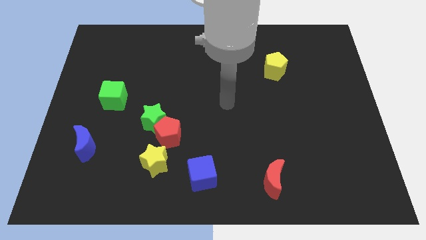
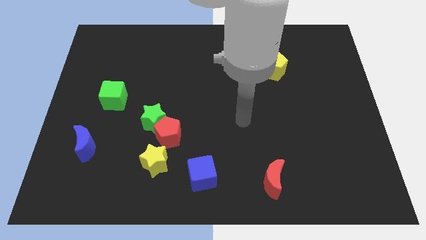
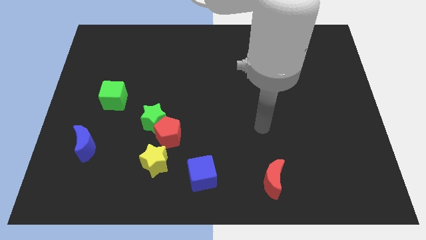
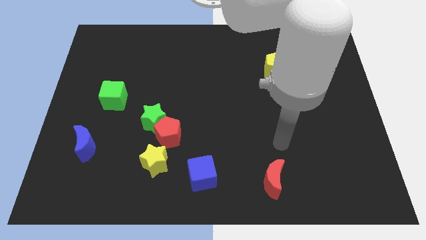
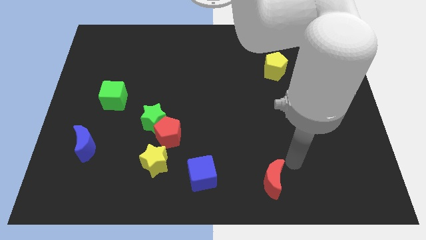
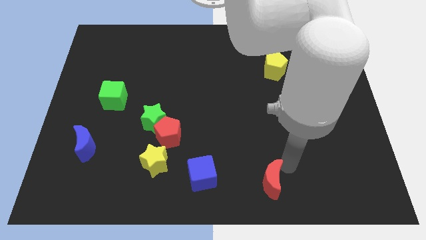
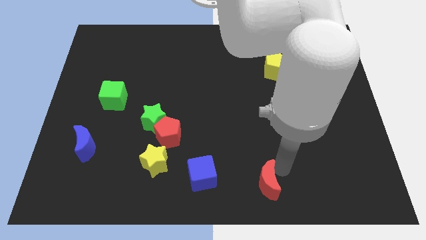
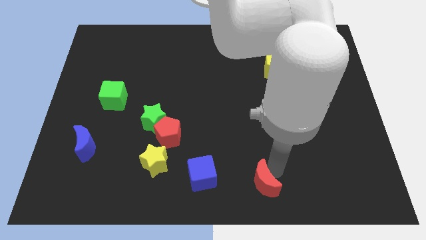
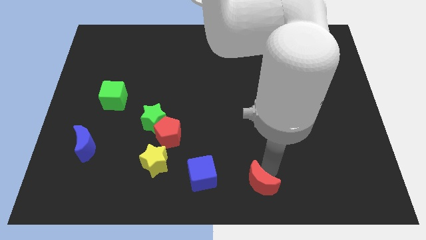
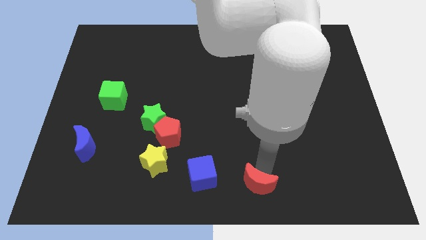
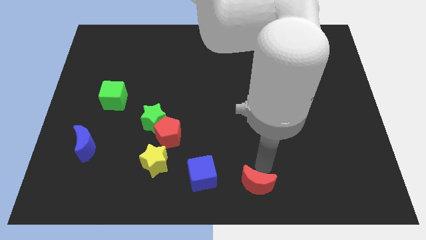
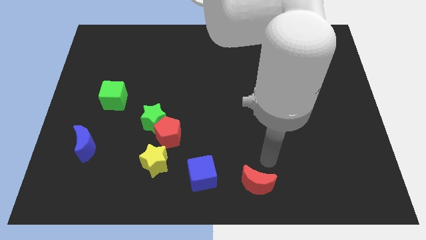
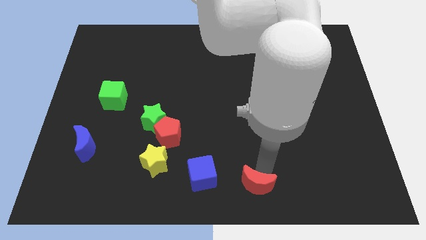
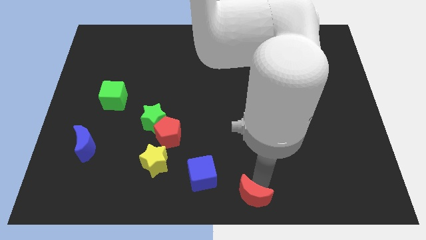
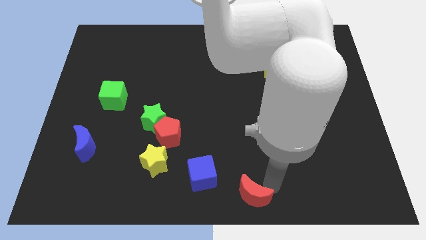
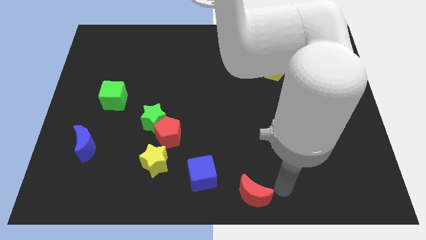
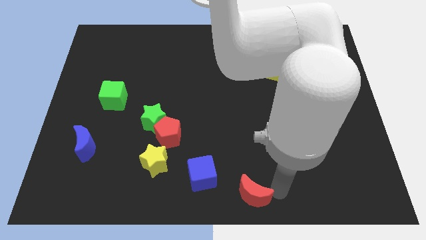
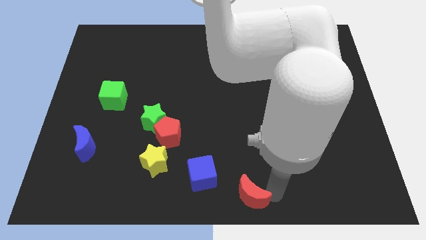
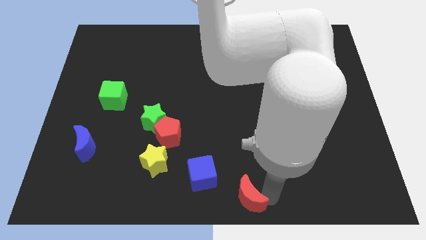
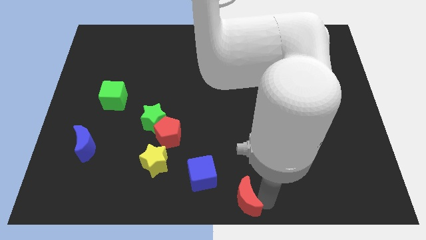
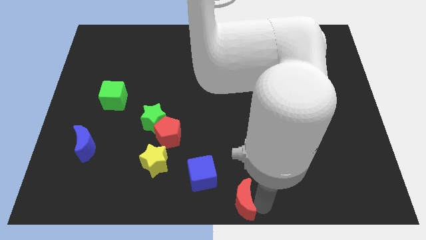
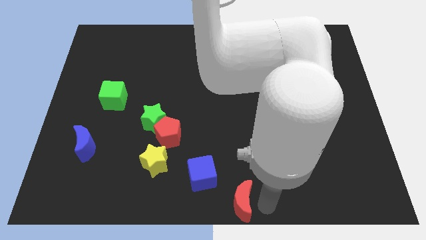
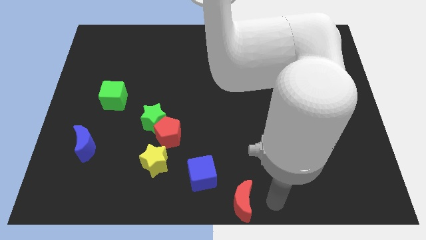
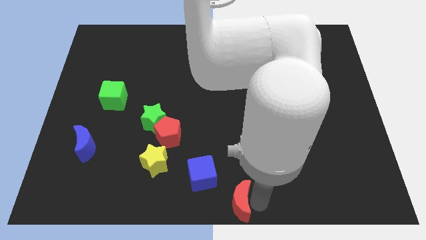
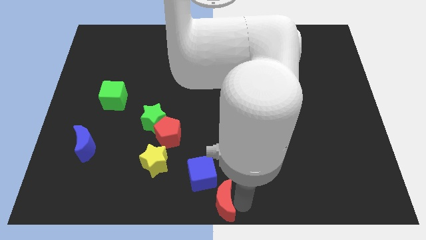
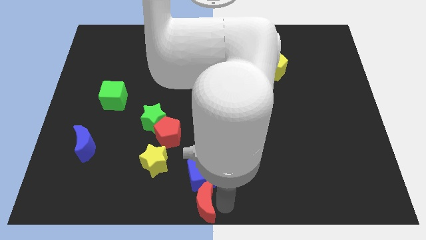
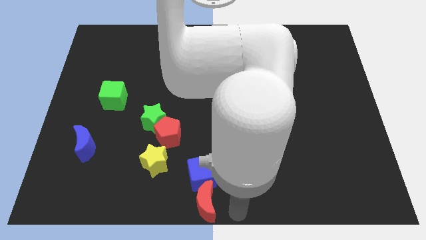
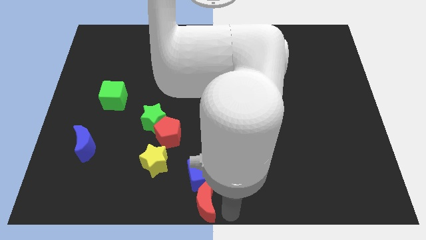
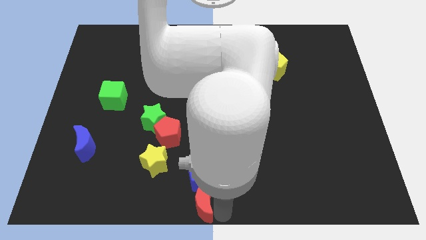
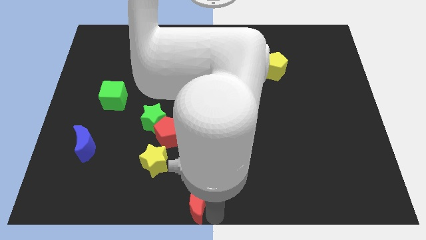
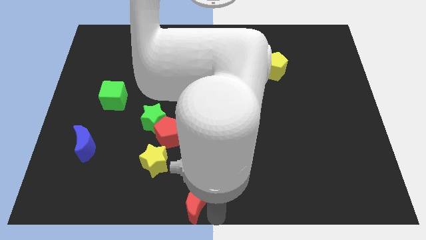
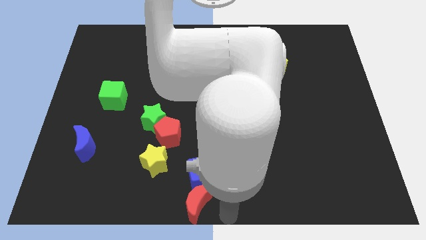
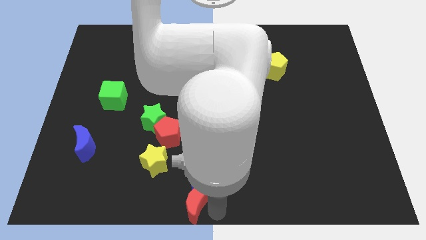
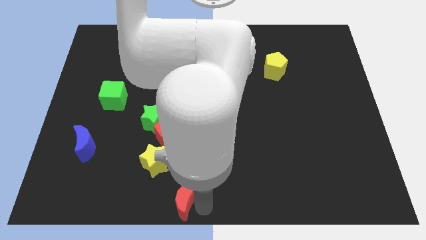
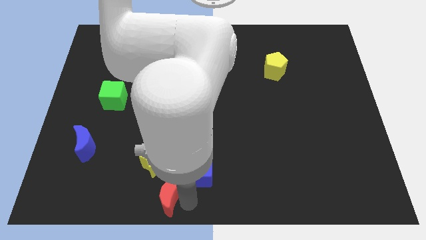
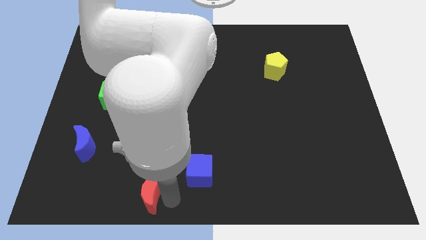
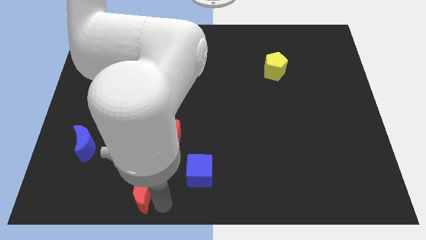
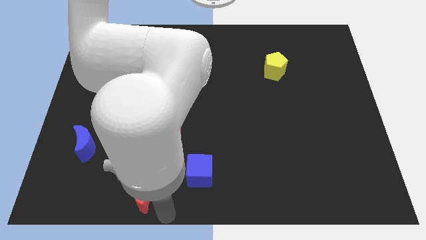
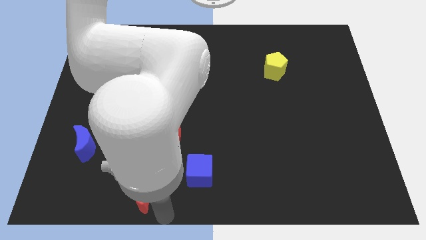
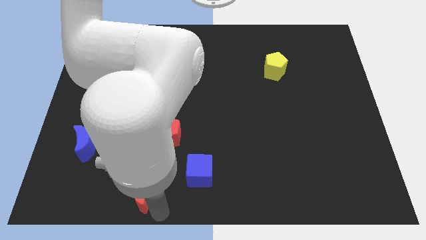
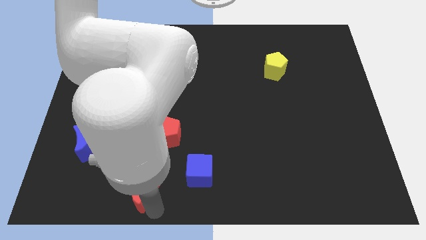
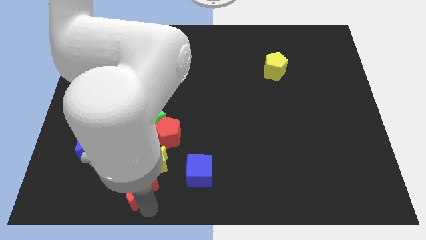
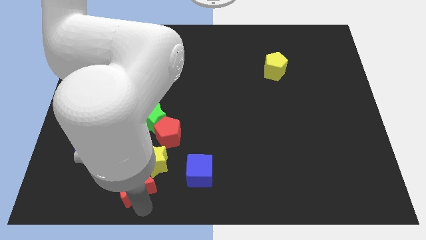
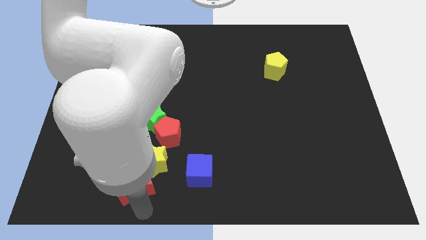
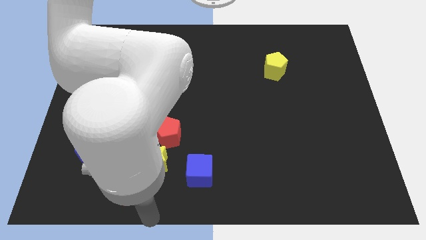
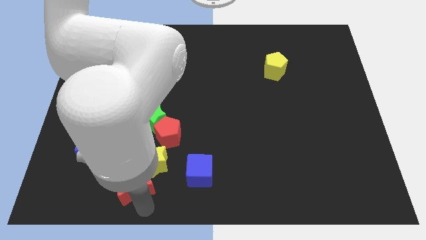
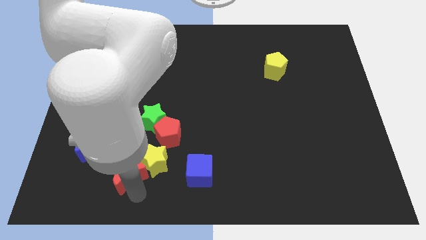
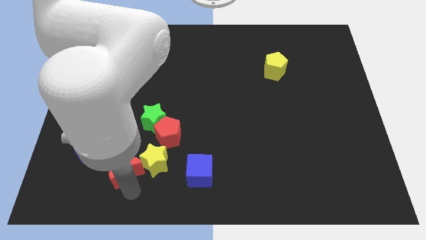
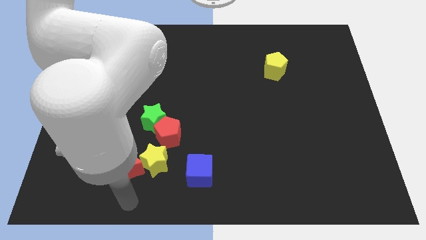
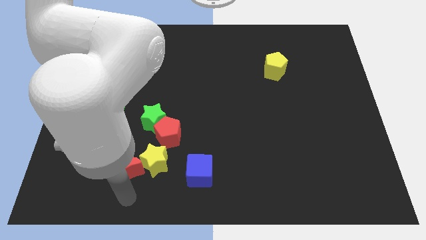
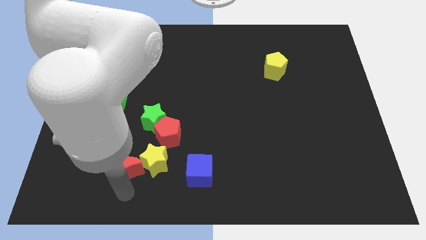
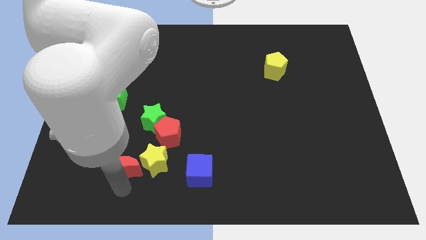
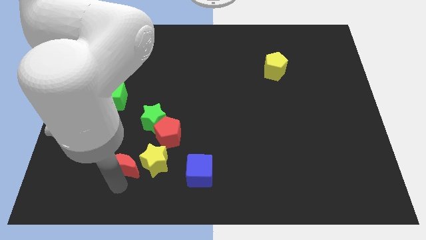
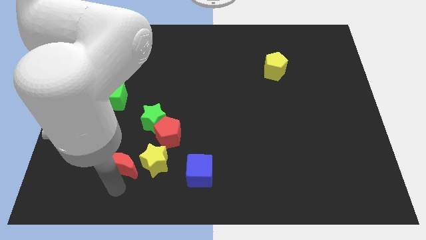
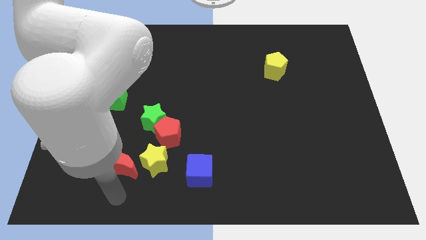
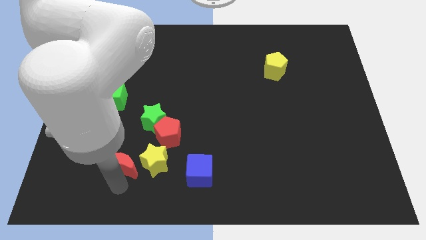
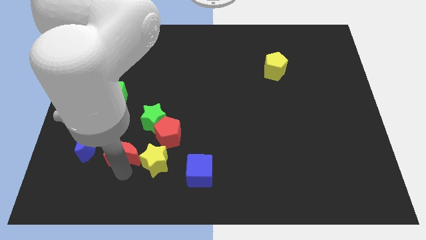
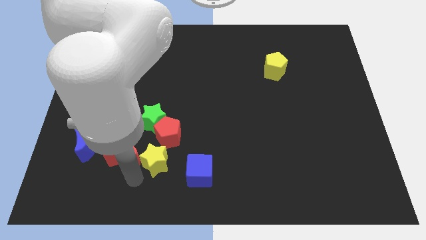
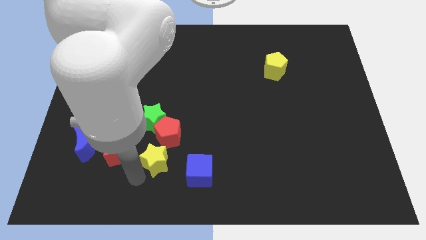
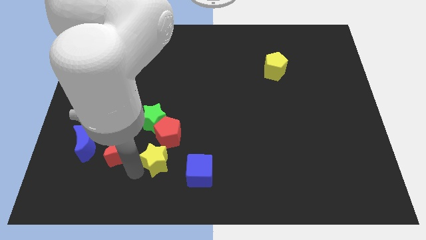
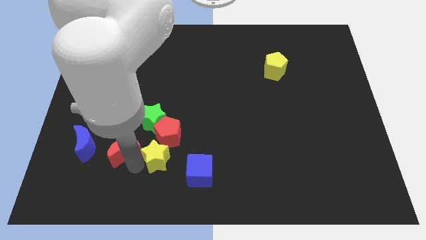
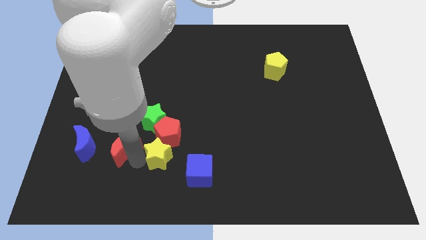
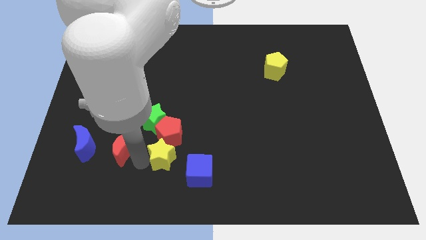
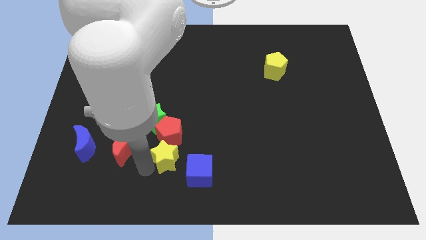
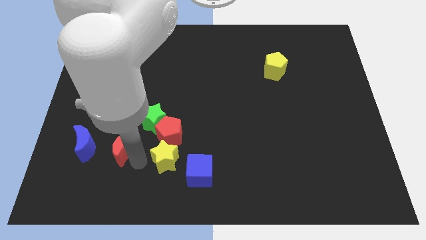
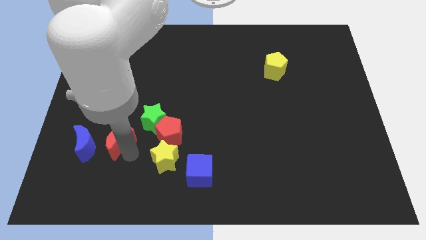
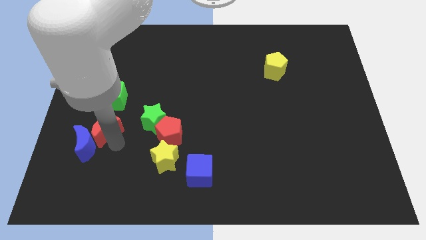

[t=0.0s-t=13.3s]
push the red moon to the top side of the blue moon

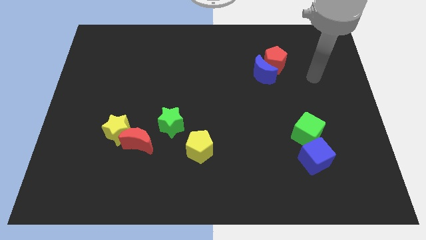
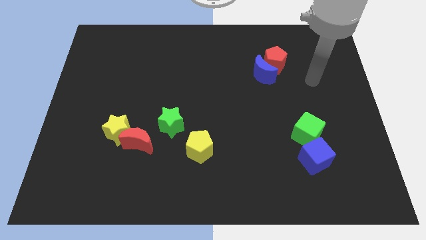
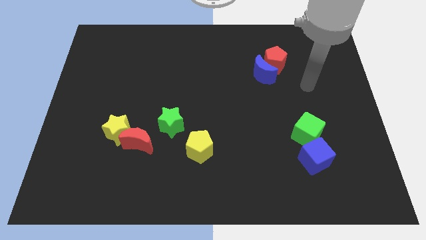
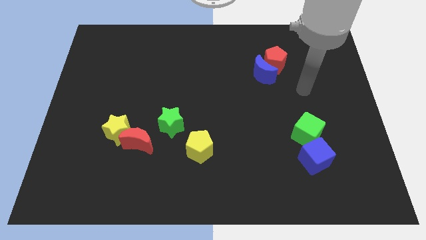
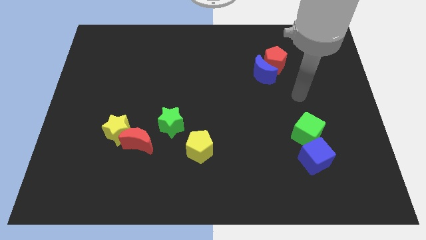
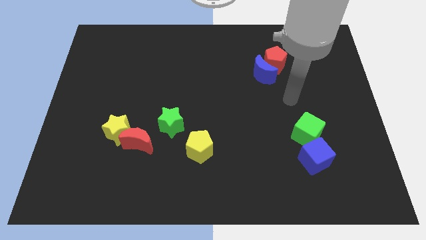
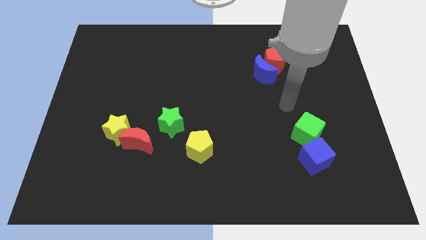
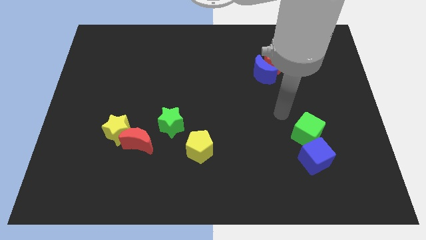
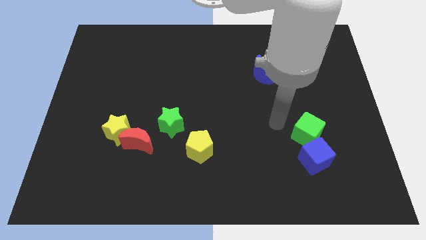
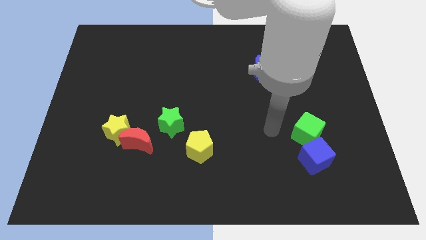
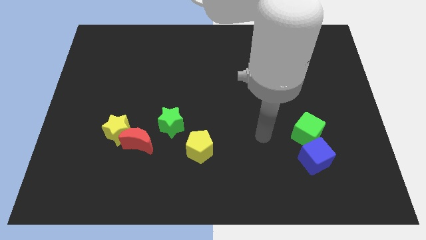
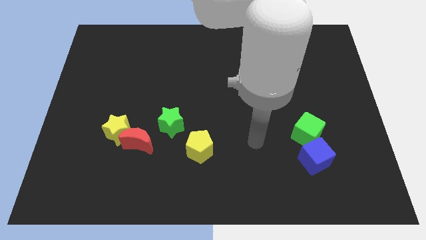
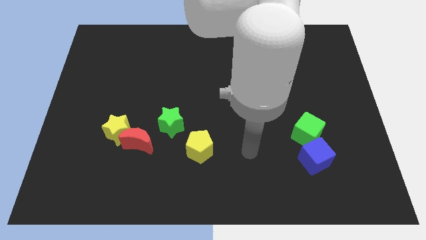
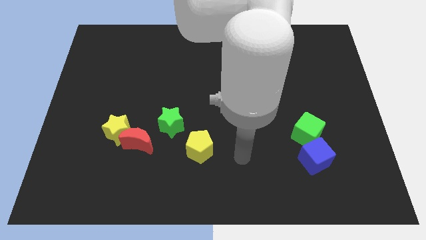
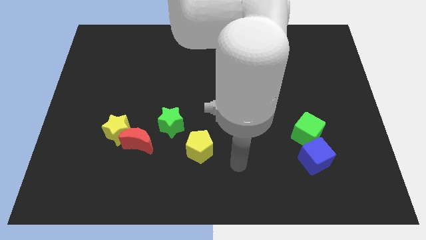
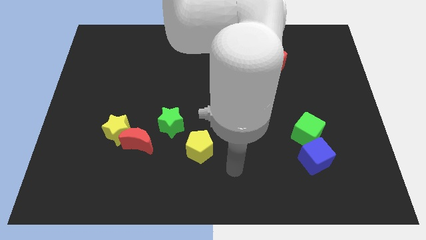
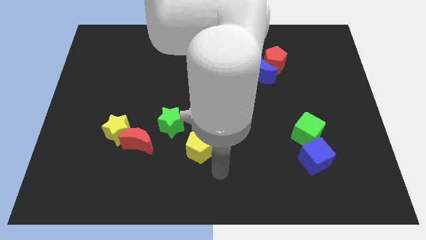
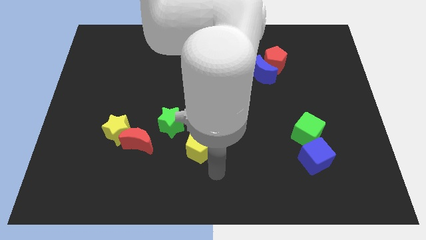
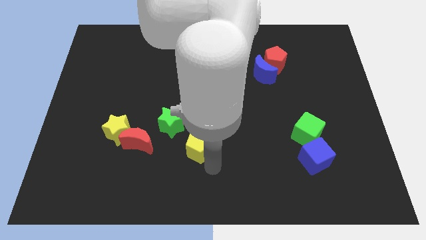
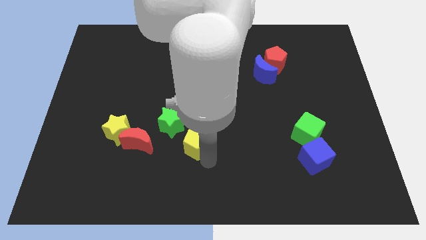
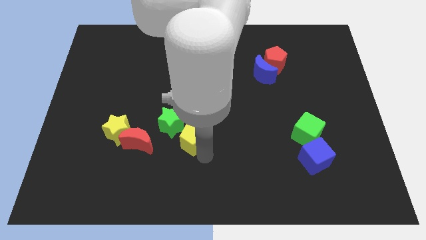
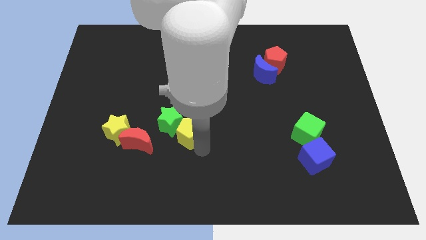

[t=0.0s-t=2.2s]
move the yellow pentagon right of the yellow star
